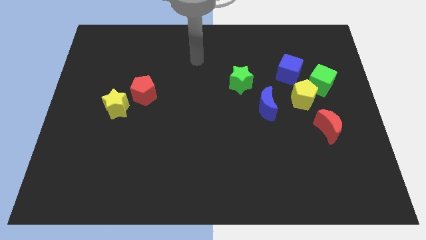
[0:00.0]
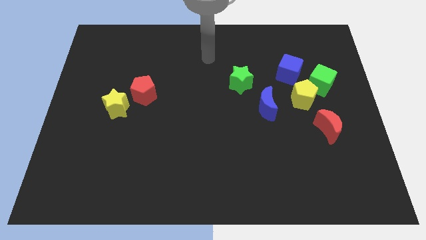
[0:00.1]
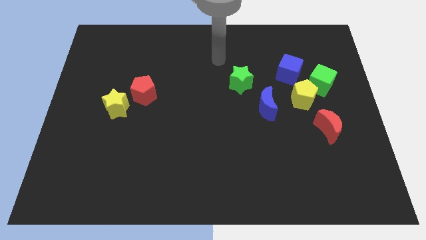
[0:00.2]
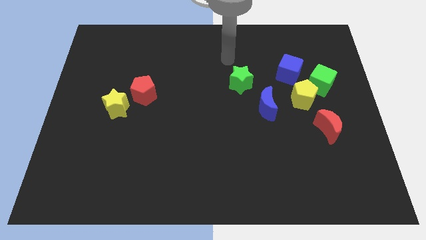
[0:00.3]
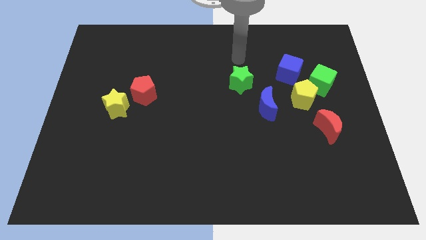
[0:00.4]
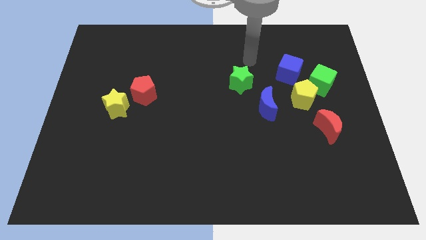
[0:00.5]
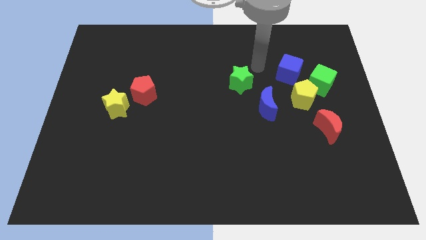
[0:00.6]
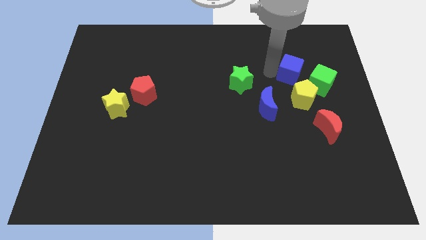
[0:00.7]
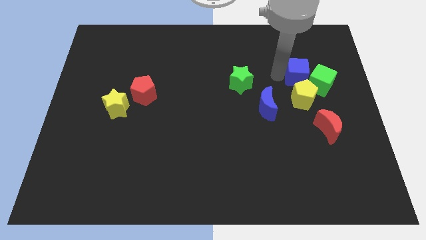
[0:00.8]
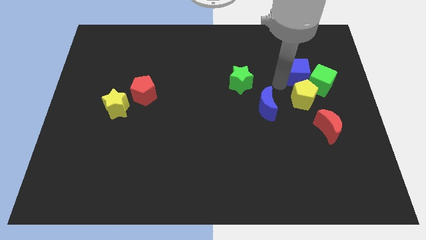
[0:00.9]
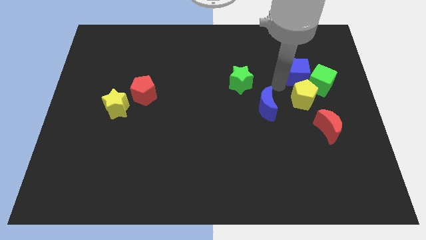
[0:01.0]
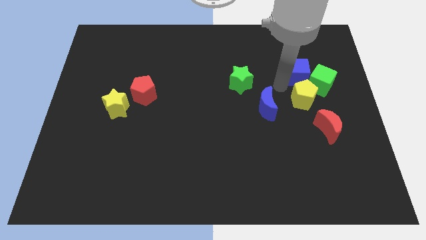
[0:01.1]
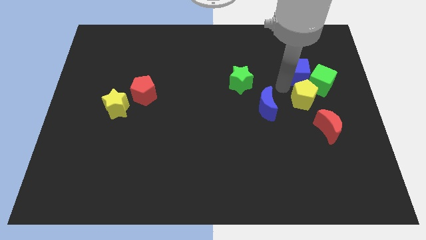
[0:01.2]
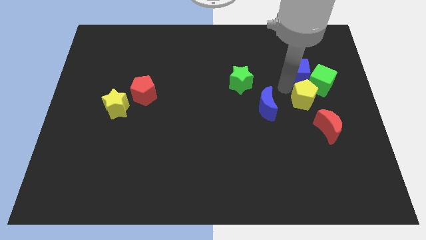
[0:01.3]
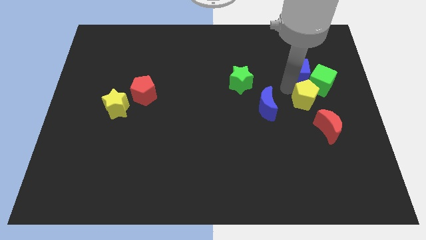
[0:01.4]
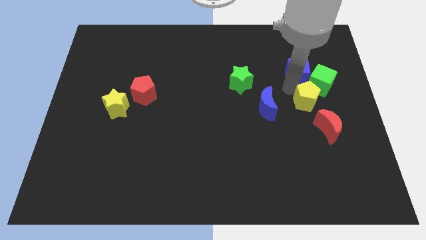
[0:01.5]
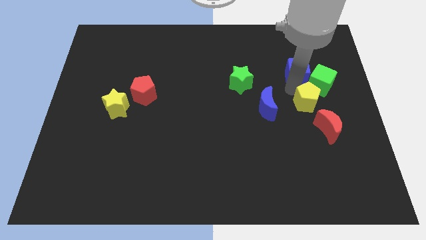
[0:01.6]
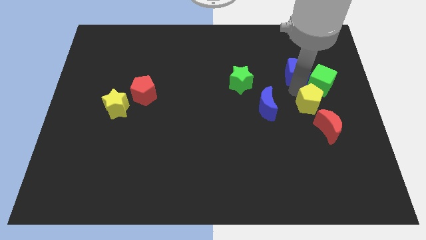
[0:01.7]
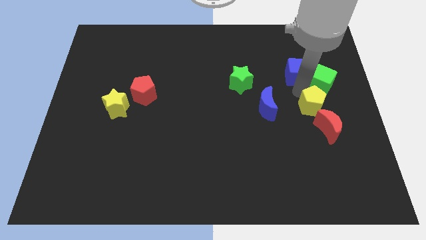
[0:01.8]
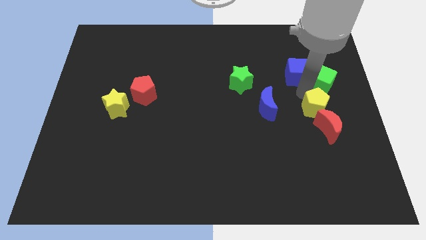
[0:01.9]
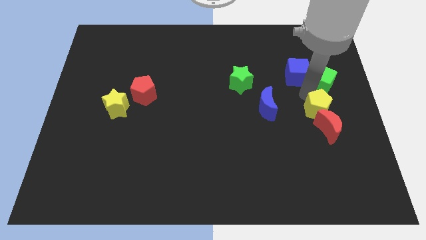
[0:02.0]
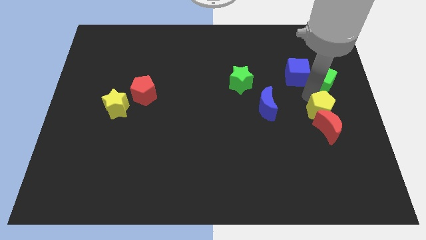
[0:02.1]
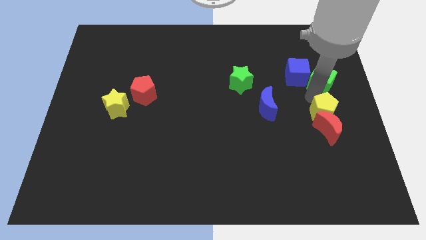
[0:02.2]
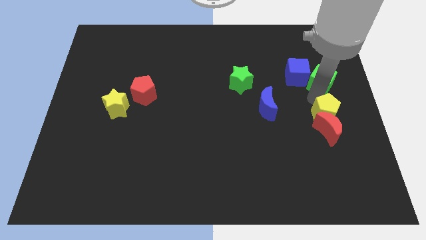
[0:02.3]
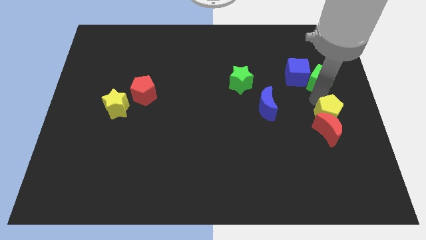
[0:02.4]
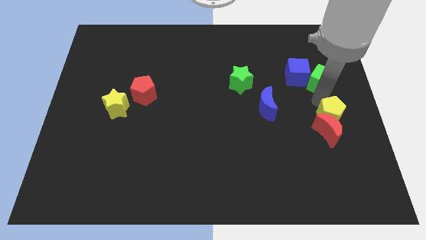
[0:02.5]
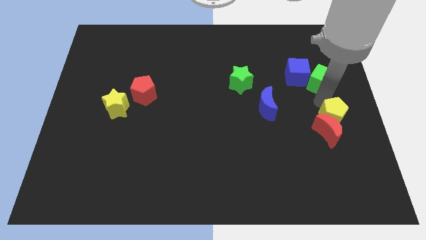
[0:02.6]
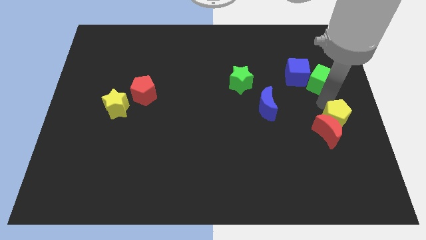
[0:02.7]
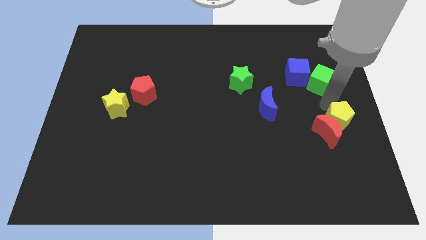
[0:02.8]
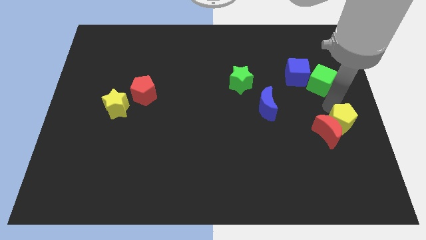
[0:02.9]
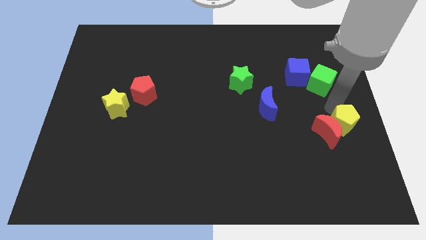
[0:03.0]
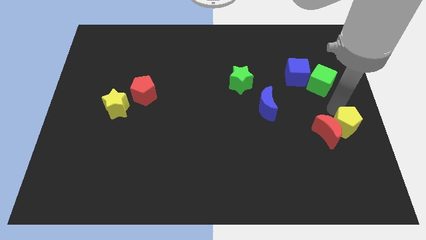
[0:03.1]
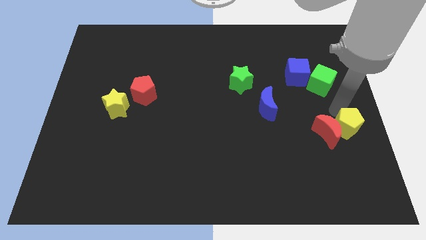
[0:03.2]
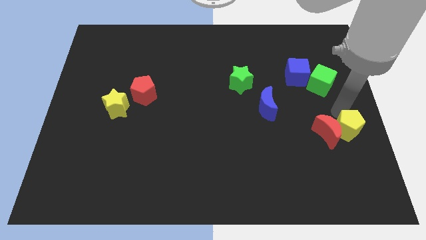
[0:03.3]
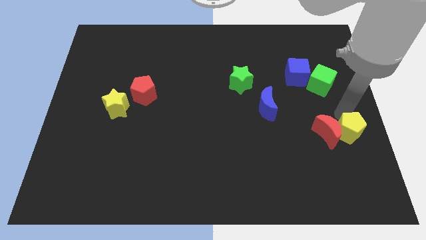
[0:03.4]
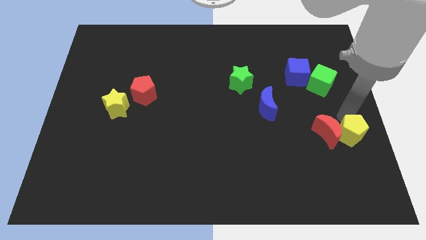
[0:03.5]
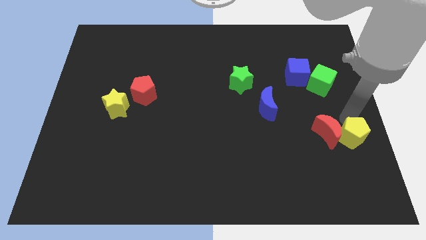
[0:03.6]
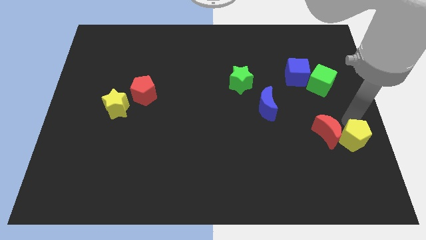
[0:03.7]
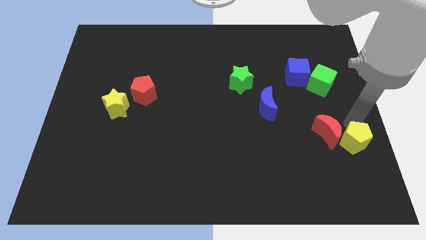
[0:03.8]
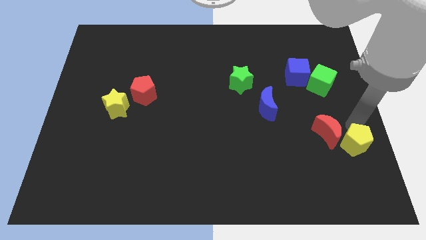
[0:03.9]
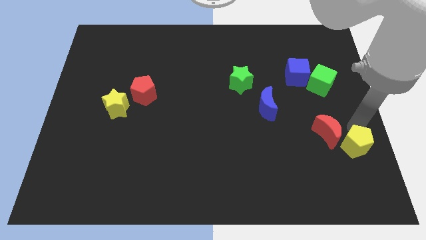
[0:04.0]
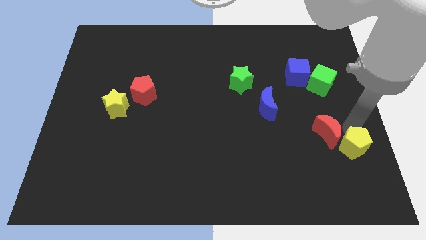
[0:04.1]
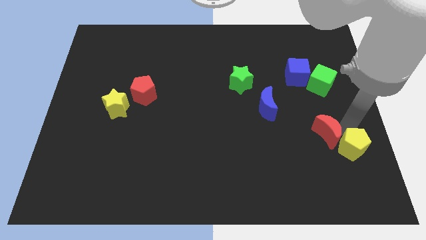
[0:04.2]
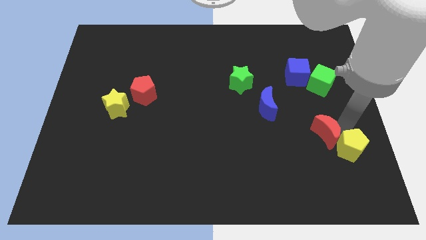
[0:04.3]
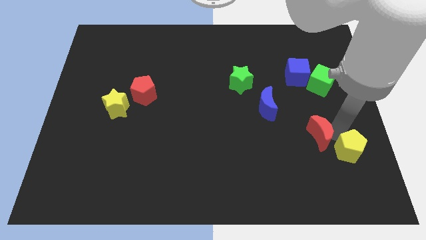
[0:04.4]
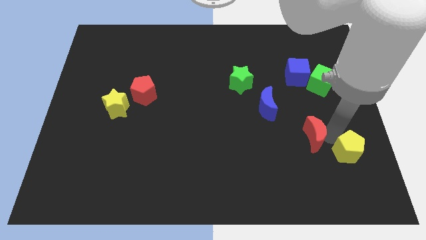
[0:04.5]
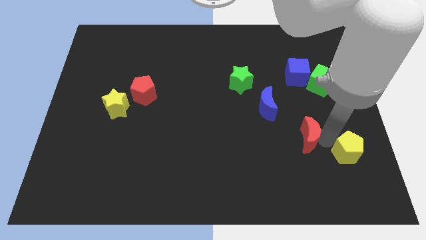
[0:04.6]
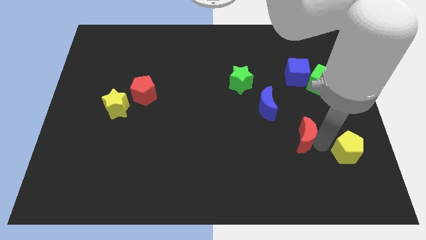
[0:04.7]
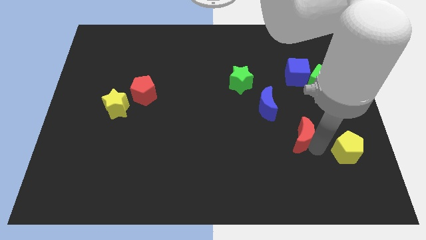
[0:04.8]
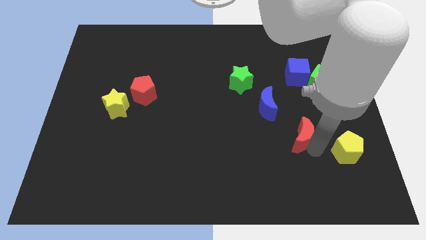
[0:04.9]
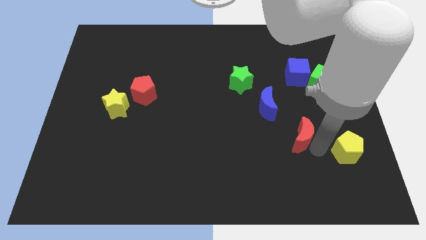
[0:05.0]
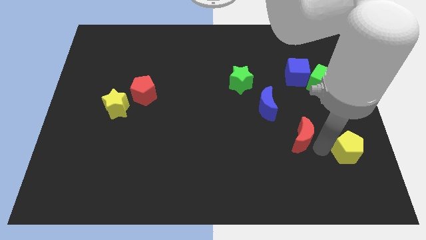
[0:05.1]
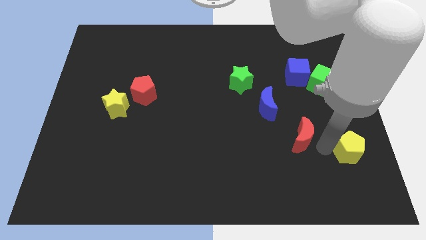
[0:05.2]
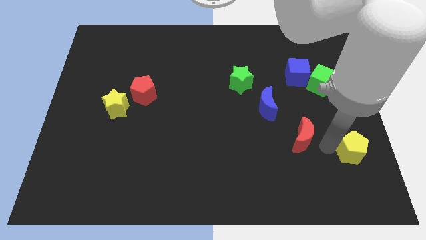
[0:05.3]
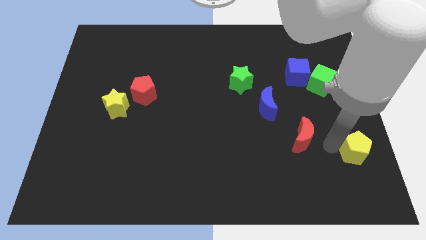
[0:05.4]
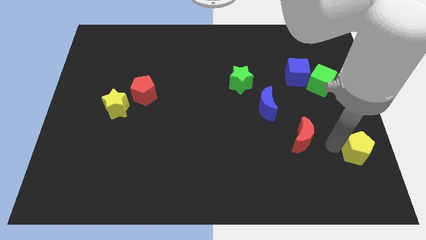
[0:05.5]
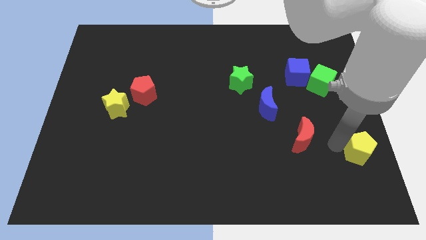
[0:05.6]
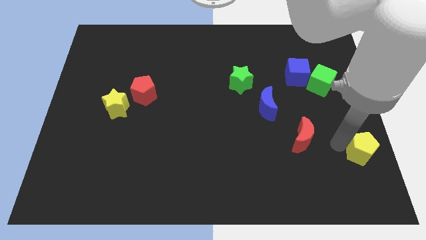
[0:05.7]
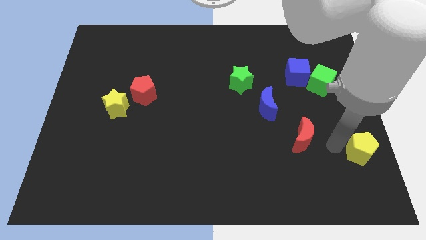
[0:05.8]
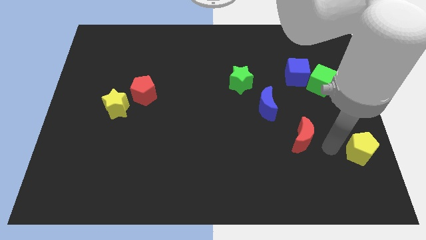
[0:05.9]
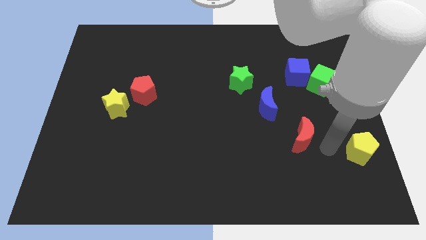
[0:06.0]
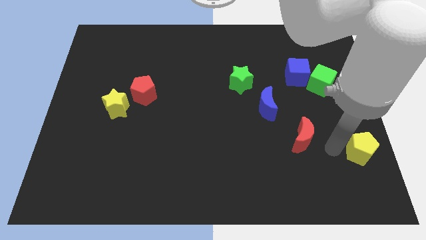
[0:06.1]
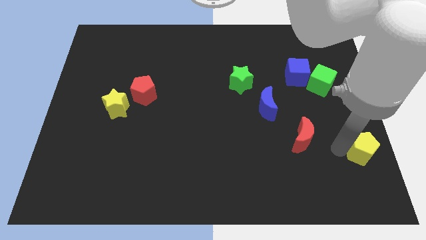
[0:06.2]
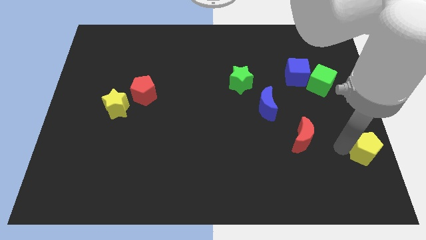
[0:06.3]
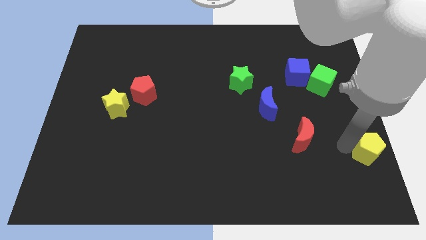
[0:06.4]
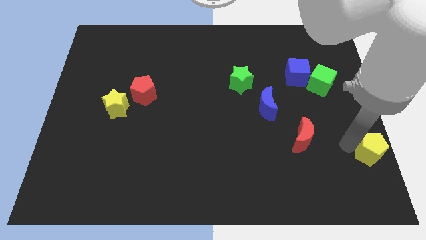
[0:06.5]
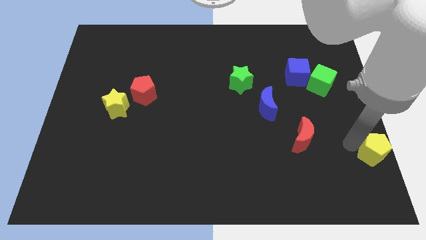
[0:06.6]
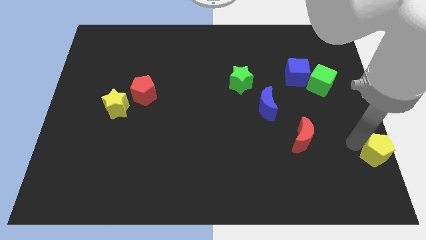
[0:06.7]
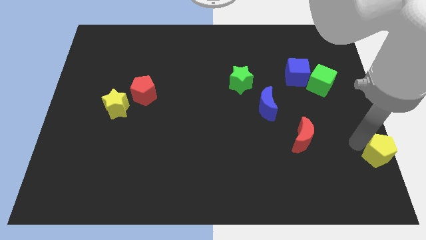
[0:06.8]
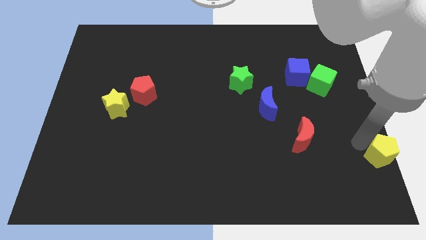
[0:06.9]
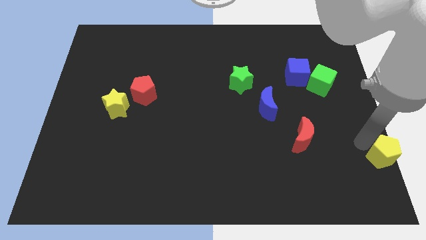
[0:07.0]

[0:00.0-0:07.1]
push the yellow pentagon to the bottom right corner

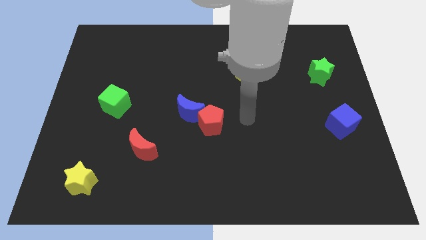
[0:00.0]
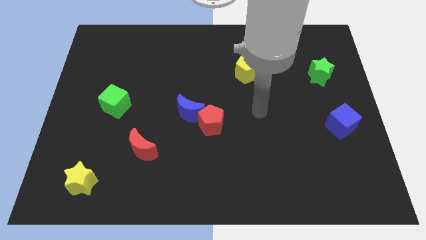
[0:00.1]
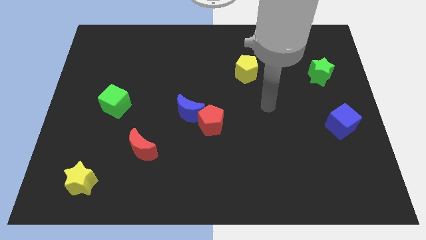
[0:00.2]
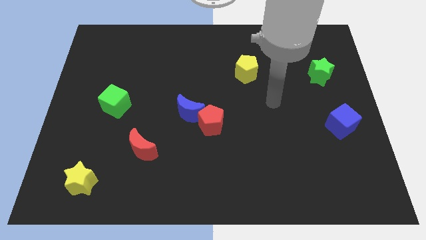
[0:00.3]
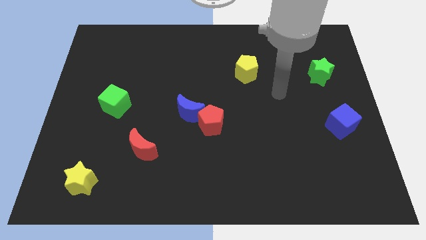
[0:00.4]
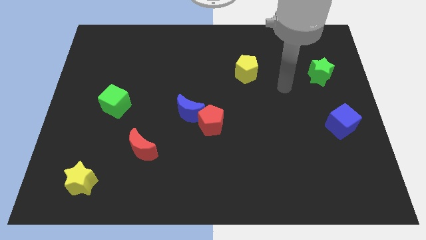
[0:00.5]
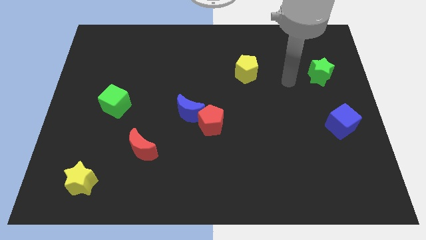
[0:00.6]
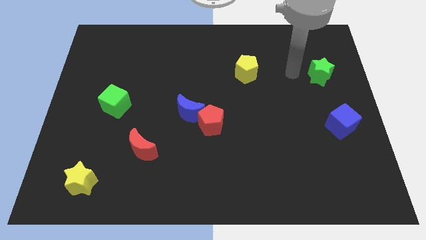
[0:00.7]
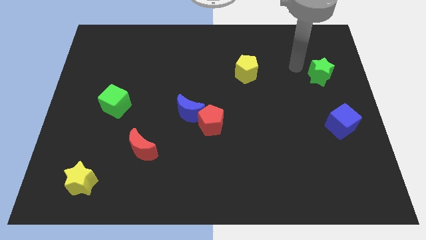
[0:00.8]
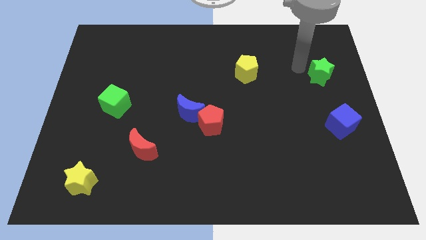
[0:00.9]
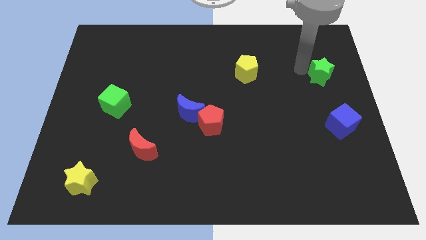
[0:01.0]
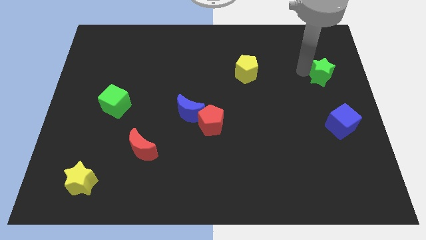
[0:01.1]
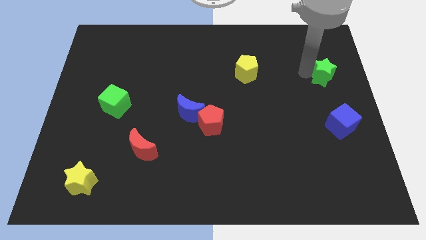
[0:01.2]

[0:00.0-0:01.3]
move the green star to the right side of the board
